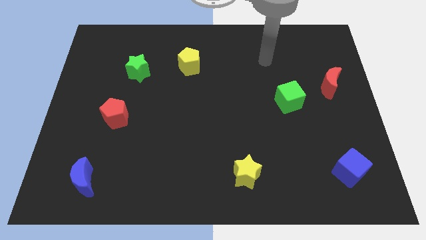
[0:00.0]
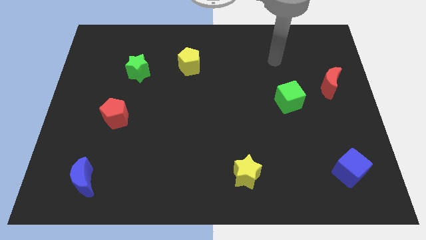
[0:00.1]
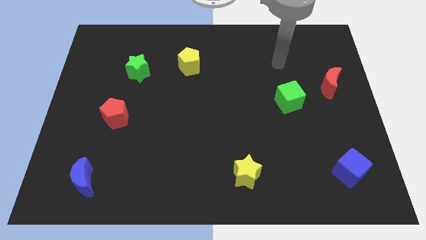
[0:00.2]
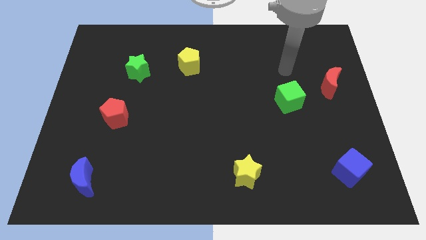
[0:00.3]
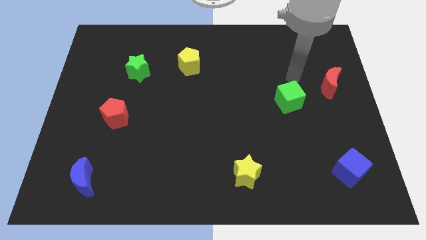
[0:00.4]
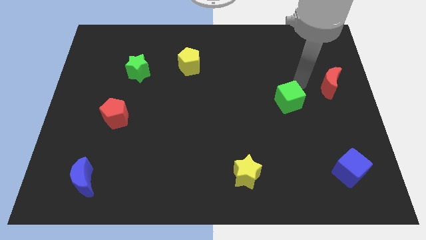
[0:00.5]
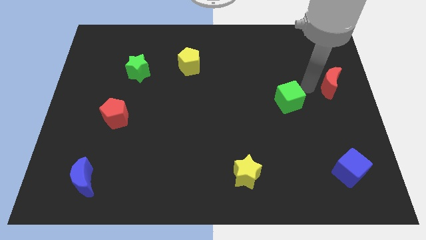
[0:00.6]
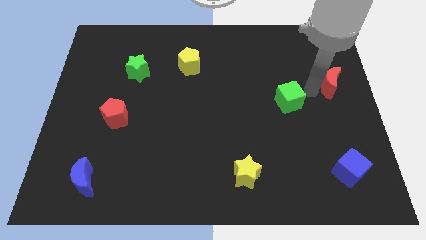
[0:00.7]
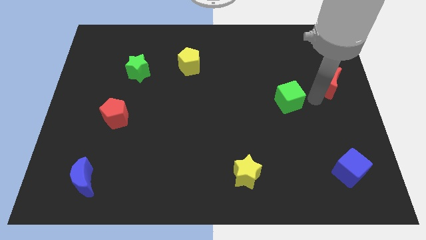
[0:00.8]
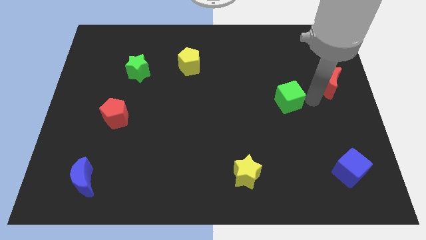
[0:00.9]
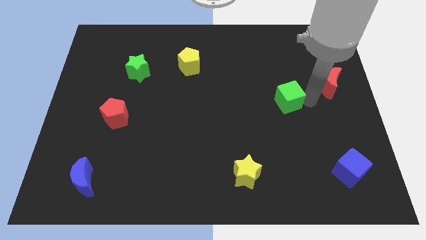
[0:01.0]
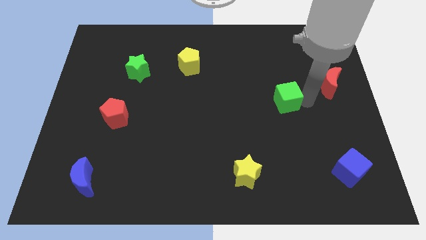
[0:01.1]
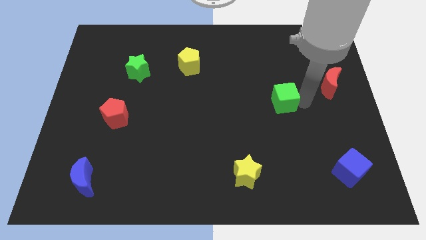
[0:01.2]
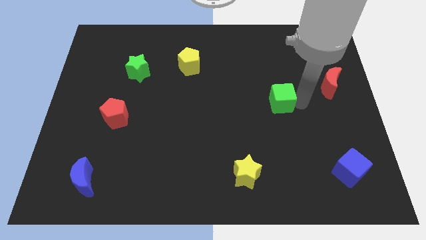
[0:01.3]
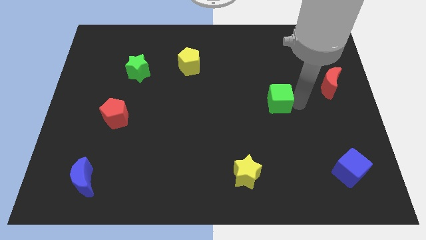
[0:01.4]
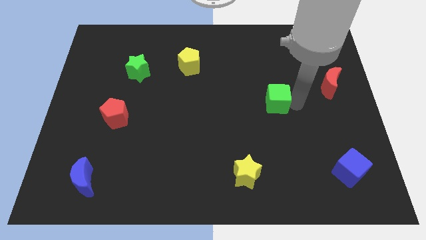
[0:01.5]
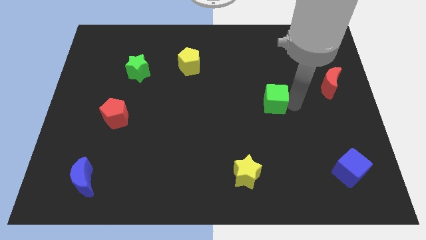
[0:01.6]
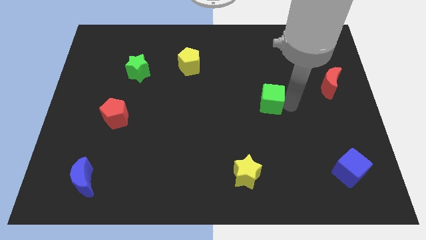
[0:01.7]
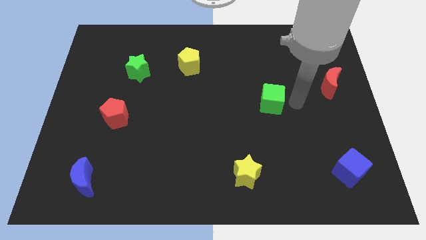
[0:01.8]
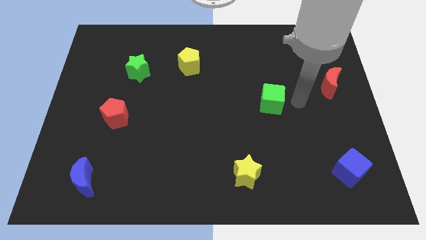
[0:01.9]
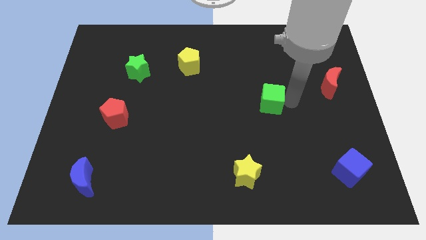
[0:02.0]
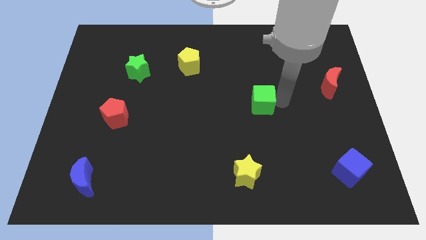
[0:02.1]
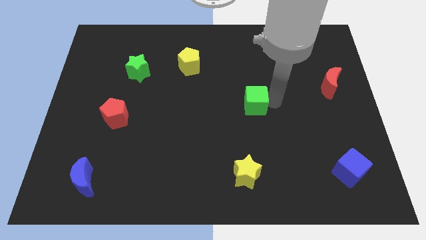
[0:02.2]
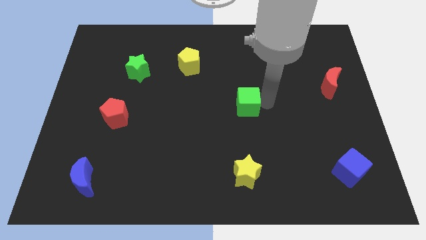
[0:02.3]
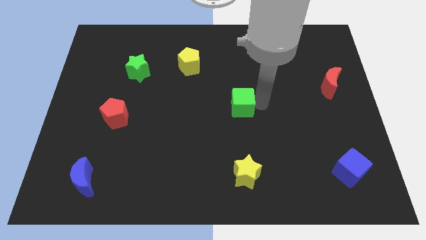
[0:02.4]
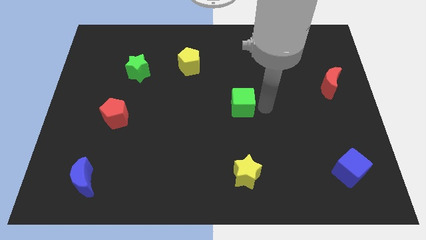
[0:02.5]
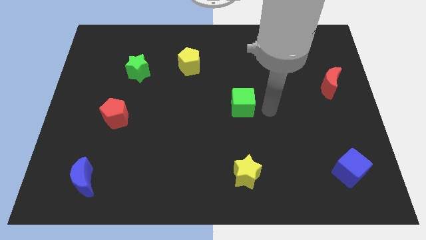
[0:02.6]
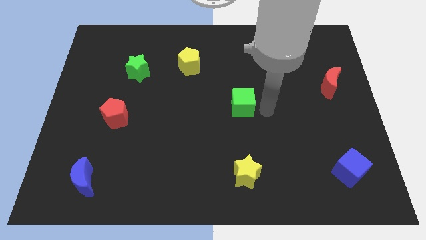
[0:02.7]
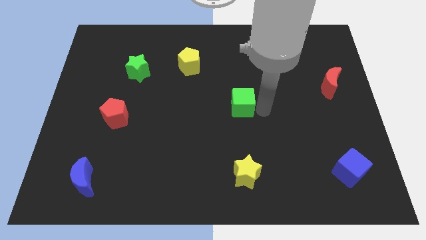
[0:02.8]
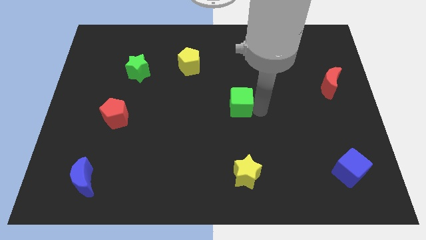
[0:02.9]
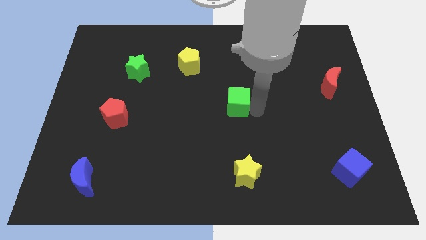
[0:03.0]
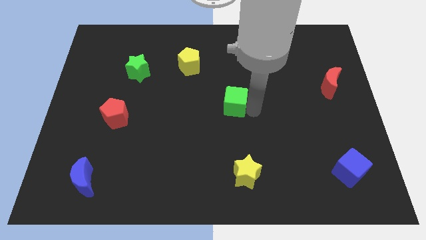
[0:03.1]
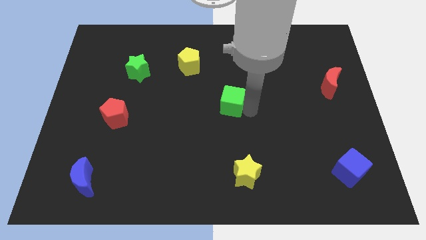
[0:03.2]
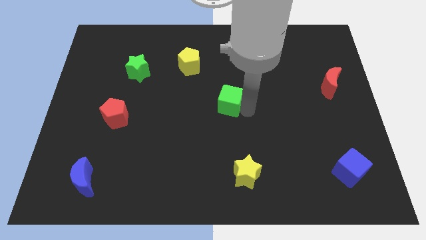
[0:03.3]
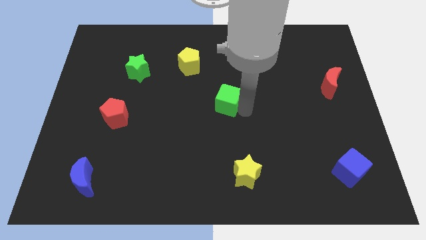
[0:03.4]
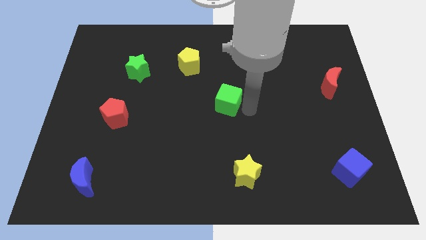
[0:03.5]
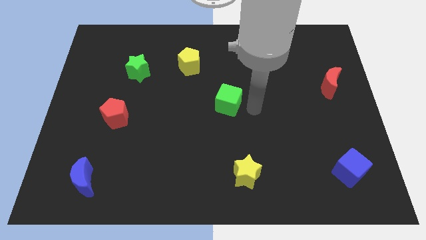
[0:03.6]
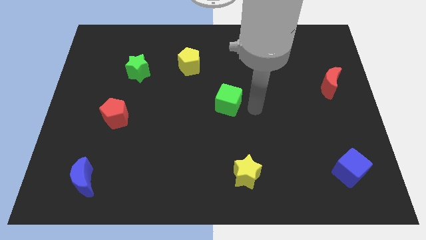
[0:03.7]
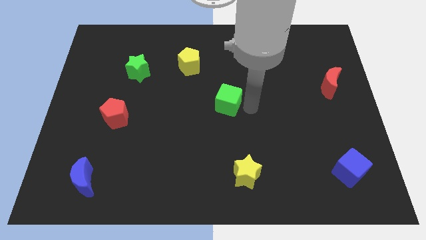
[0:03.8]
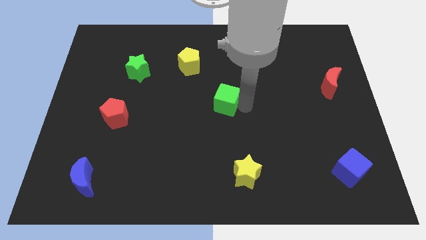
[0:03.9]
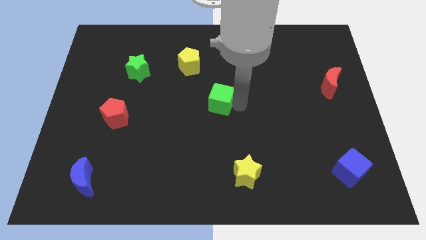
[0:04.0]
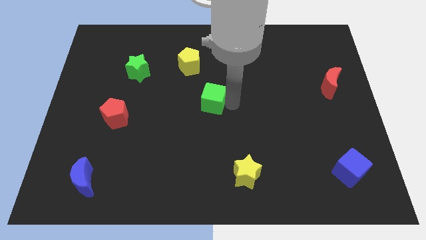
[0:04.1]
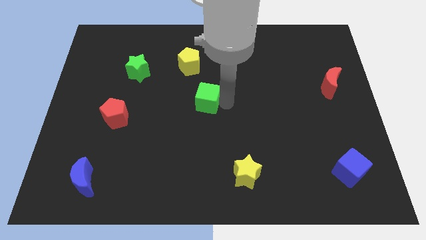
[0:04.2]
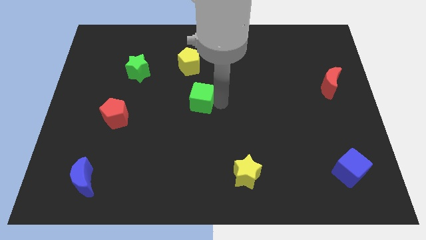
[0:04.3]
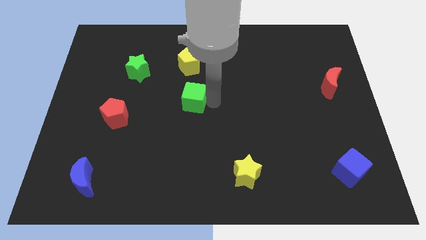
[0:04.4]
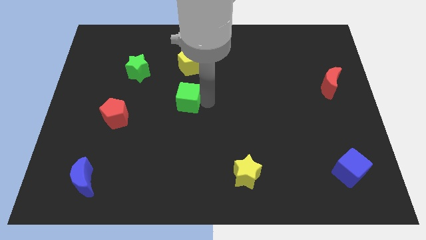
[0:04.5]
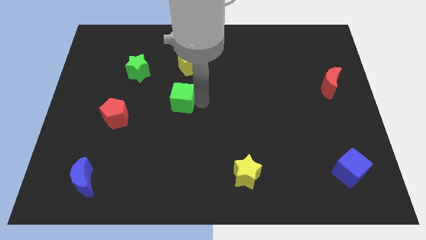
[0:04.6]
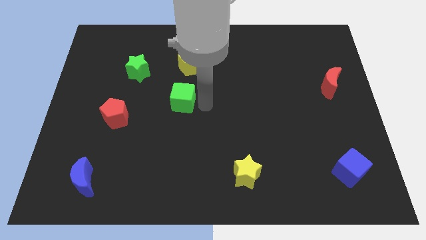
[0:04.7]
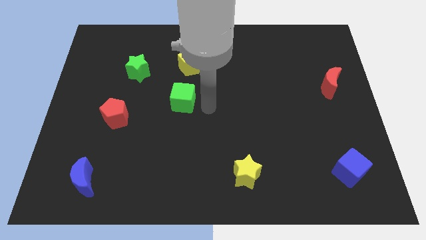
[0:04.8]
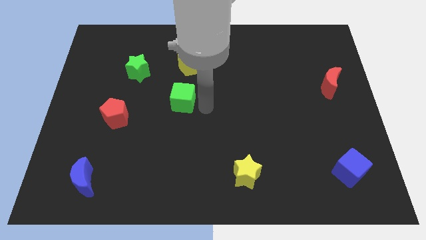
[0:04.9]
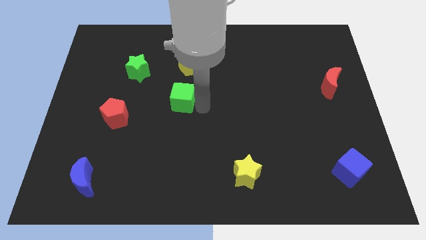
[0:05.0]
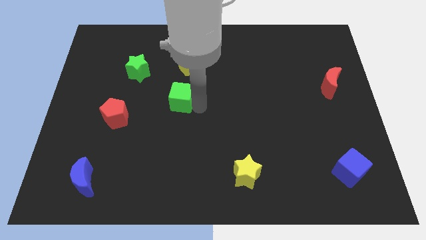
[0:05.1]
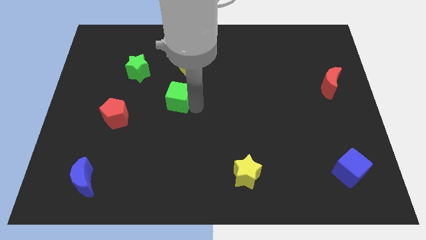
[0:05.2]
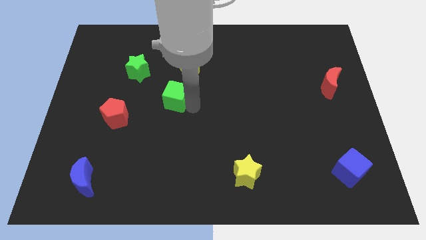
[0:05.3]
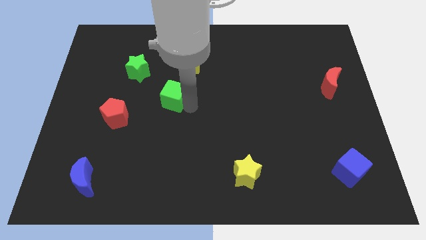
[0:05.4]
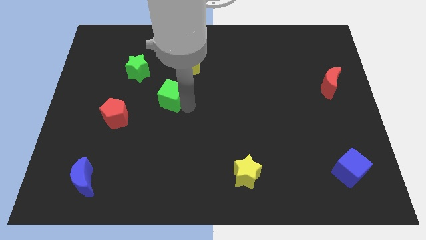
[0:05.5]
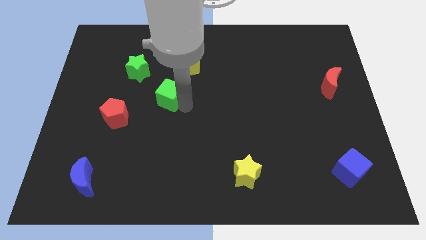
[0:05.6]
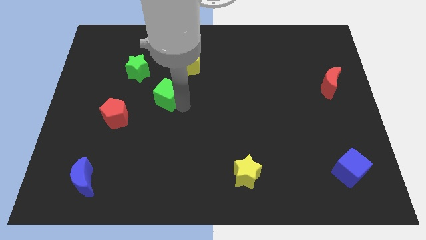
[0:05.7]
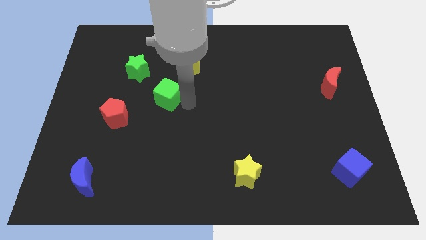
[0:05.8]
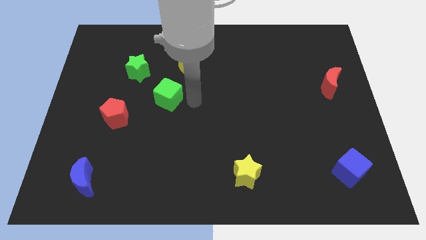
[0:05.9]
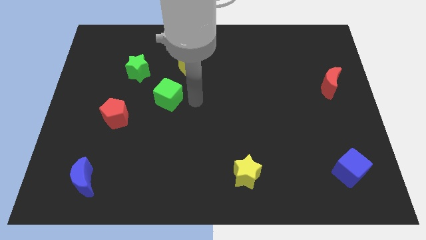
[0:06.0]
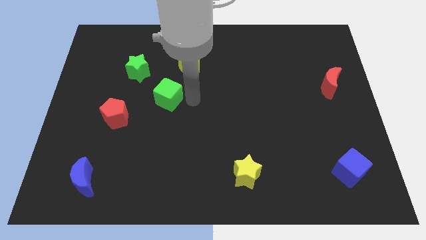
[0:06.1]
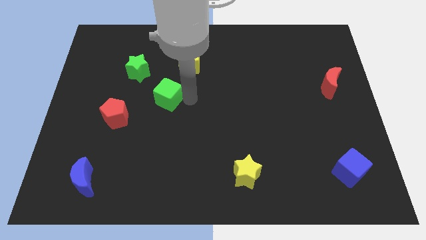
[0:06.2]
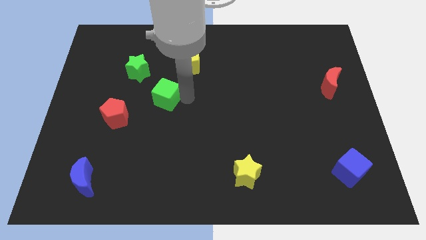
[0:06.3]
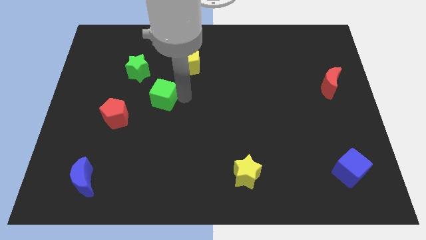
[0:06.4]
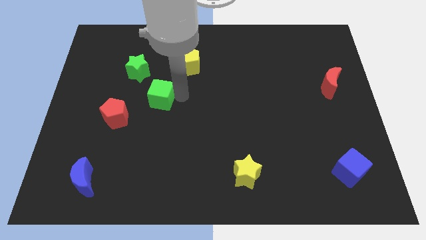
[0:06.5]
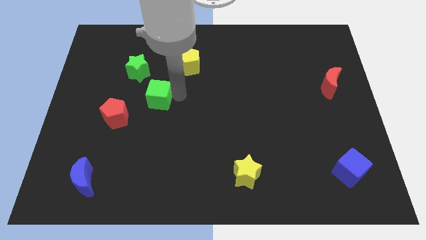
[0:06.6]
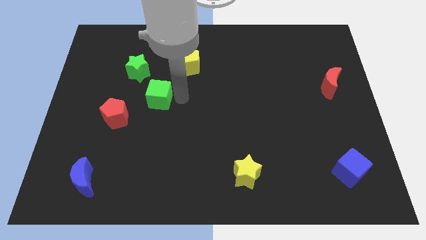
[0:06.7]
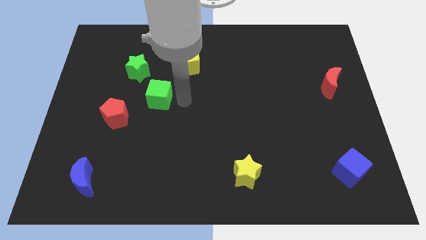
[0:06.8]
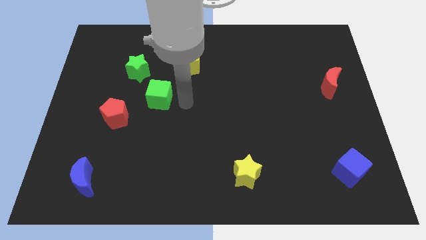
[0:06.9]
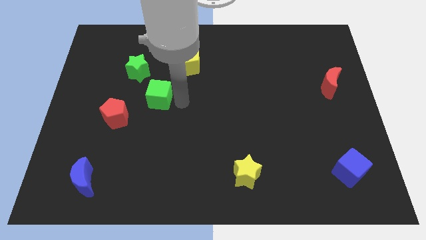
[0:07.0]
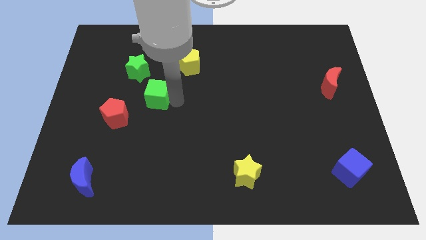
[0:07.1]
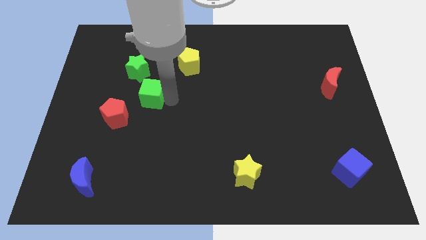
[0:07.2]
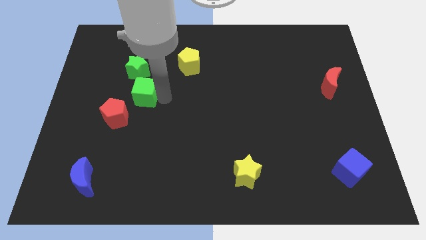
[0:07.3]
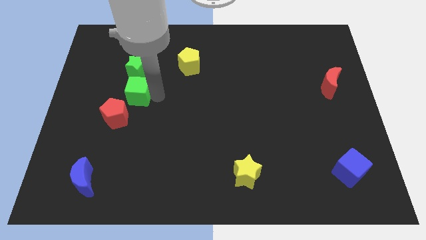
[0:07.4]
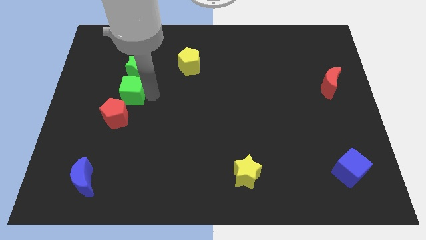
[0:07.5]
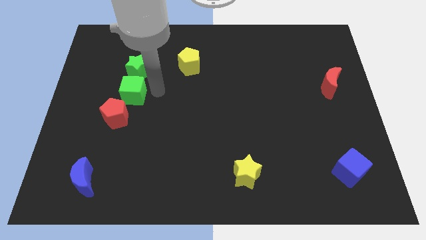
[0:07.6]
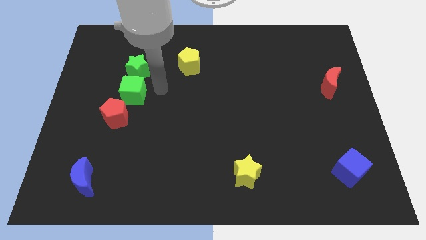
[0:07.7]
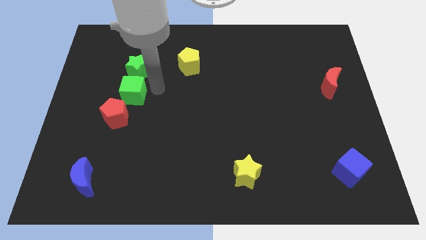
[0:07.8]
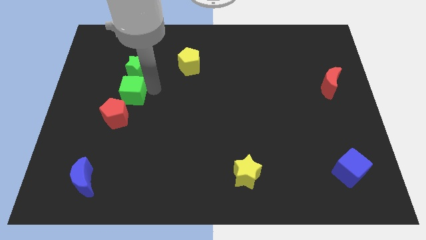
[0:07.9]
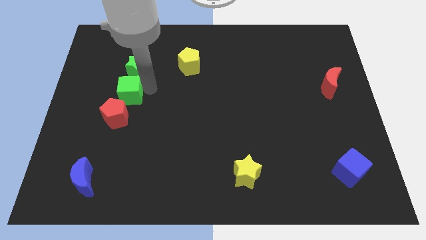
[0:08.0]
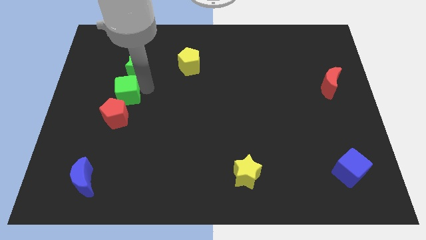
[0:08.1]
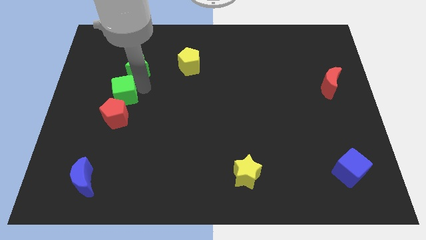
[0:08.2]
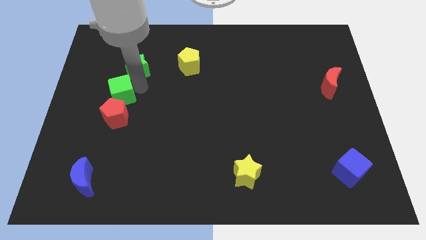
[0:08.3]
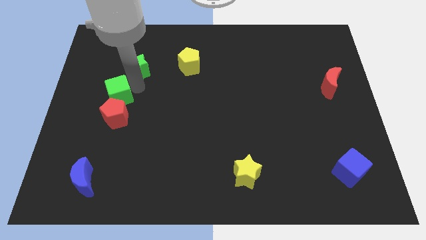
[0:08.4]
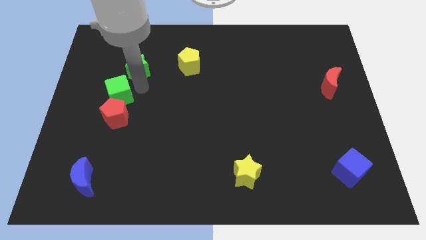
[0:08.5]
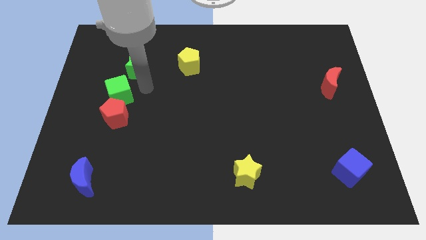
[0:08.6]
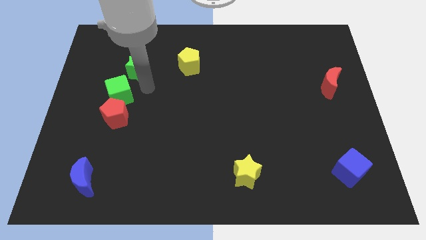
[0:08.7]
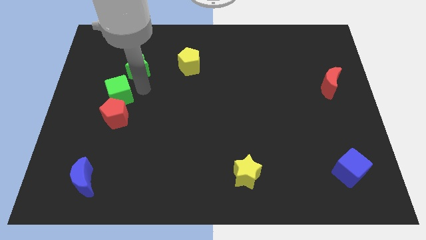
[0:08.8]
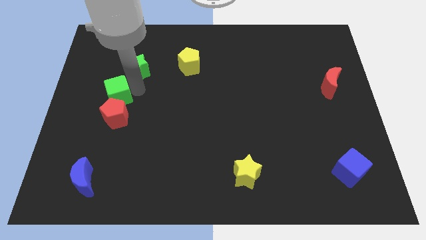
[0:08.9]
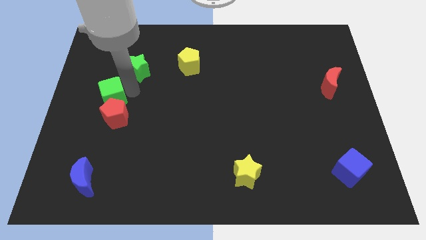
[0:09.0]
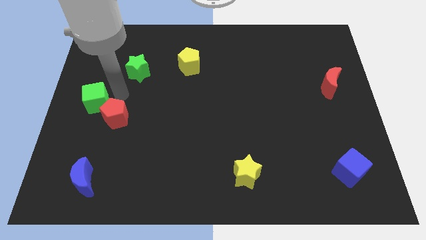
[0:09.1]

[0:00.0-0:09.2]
push the green cube to the left side
